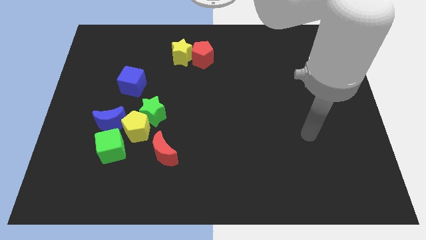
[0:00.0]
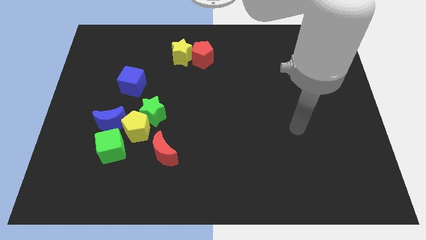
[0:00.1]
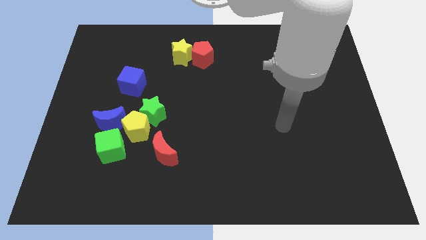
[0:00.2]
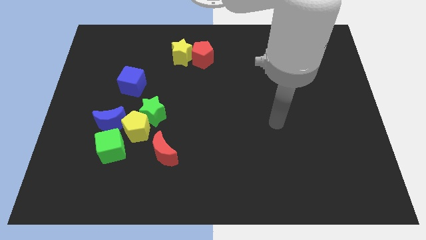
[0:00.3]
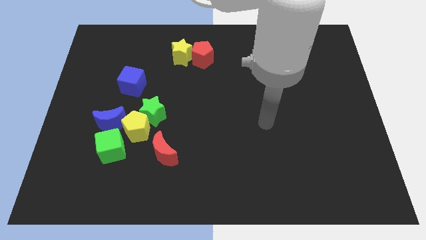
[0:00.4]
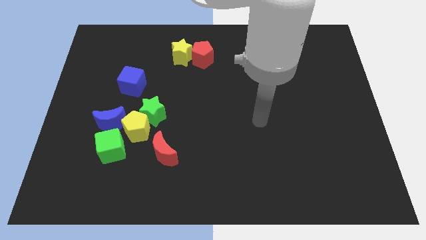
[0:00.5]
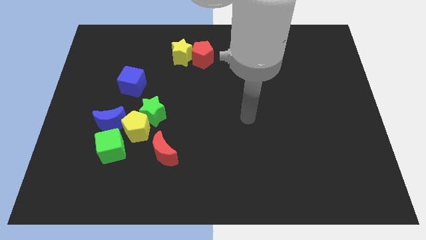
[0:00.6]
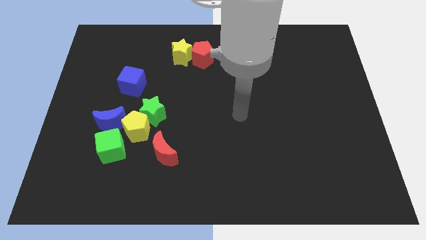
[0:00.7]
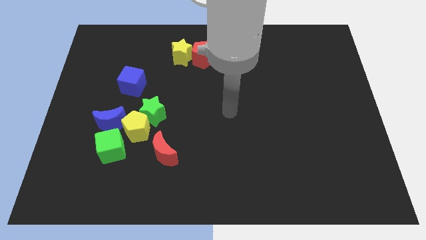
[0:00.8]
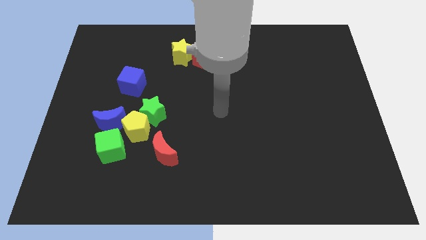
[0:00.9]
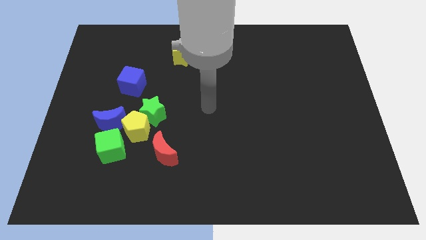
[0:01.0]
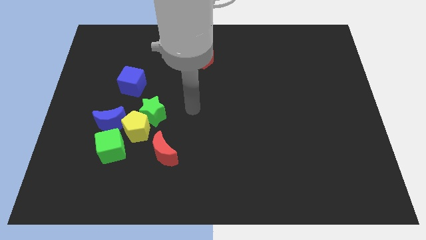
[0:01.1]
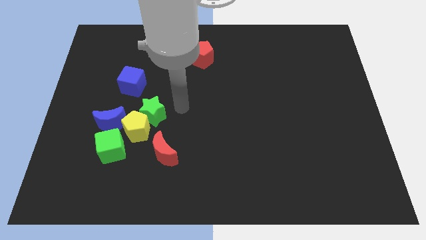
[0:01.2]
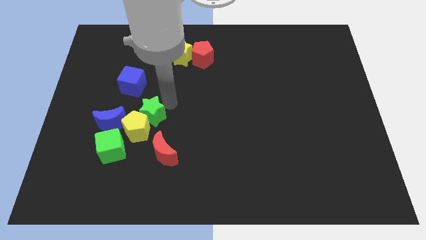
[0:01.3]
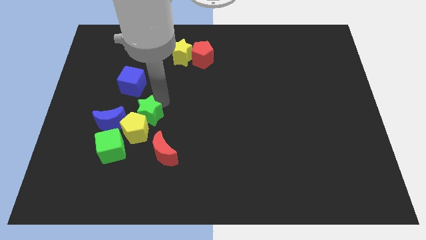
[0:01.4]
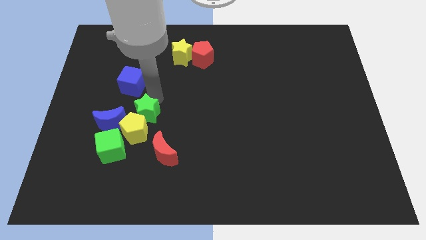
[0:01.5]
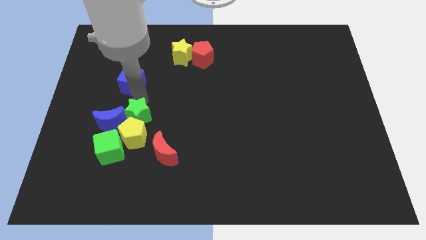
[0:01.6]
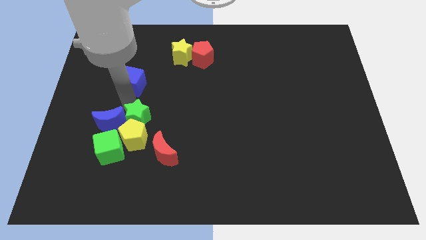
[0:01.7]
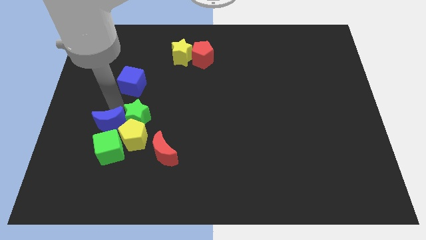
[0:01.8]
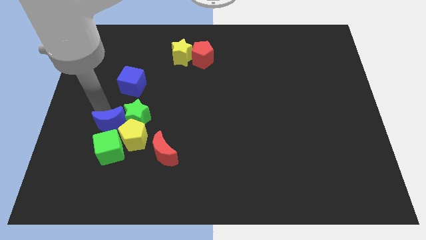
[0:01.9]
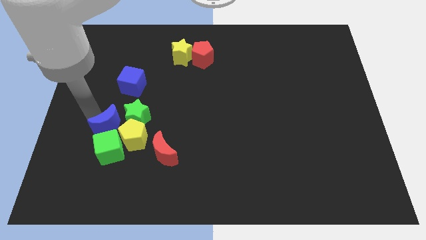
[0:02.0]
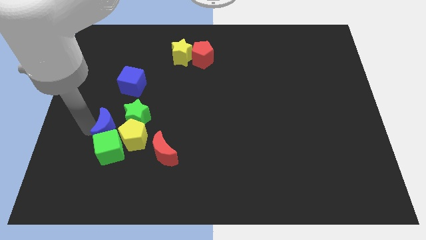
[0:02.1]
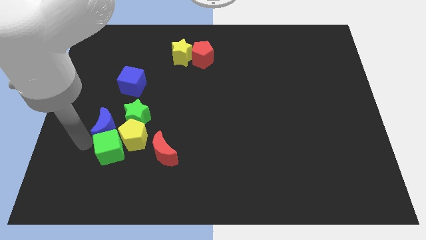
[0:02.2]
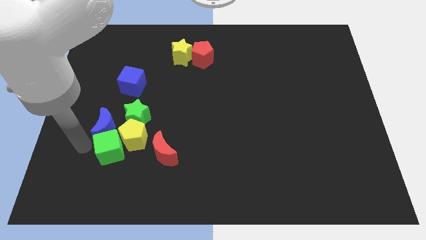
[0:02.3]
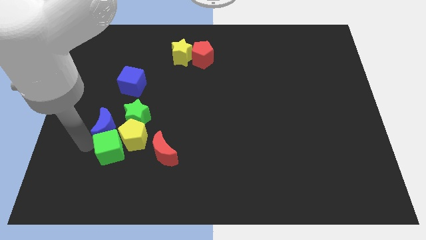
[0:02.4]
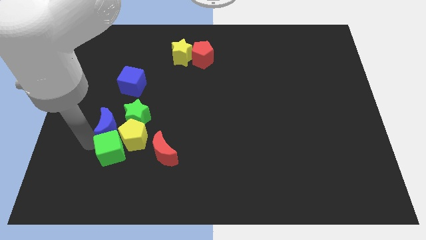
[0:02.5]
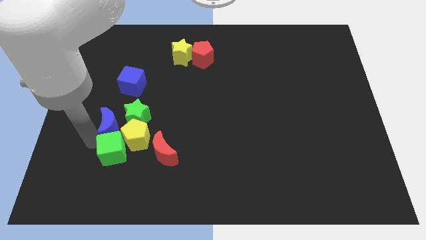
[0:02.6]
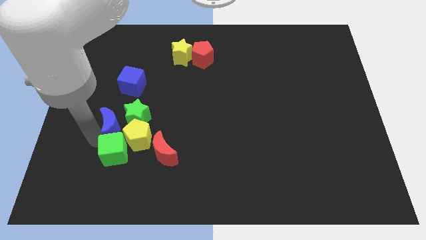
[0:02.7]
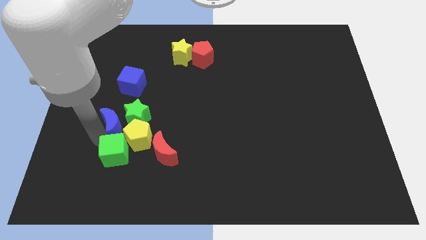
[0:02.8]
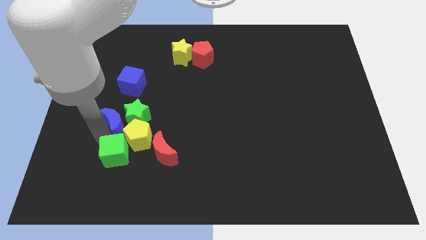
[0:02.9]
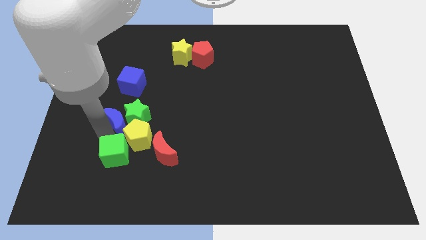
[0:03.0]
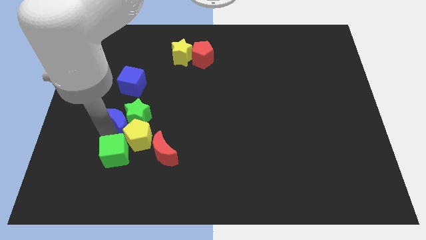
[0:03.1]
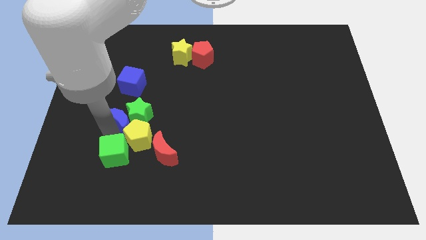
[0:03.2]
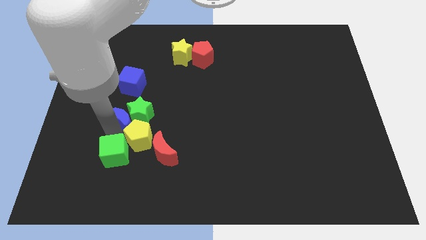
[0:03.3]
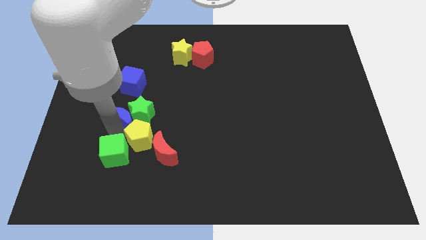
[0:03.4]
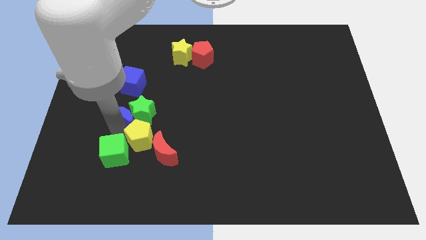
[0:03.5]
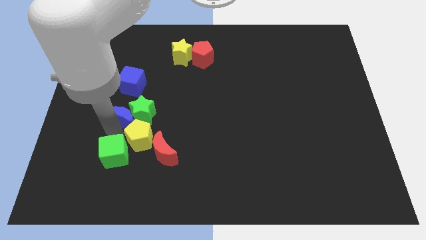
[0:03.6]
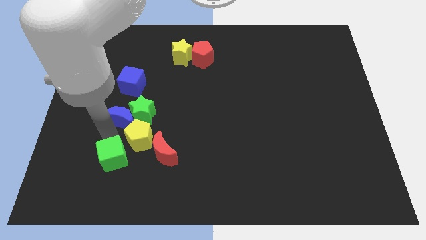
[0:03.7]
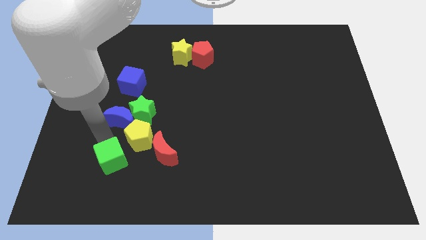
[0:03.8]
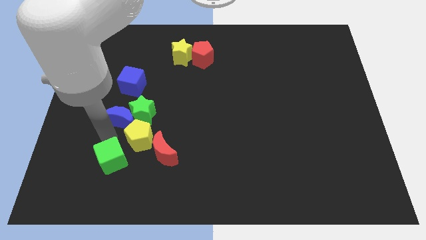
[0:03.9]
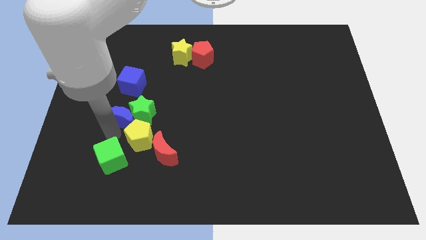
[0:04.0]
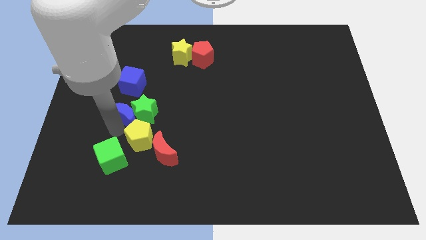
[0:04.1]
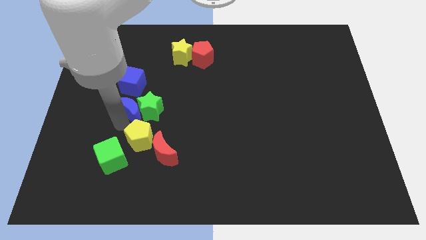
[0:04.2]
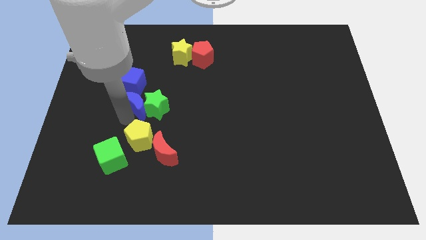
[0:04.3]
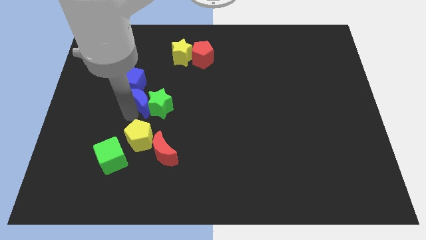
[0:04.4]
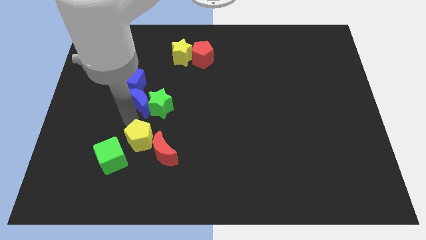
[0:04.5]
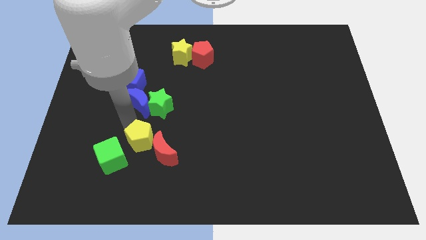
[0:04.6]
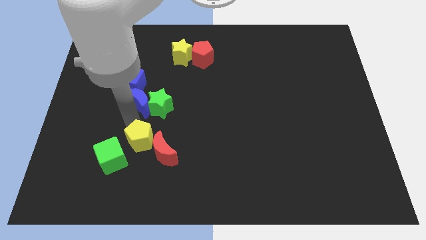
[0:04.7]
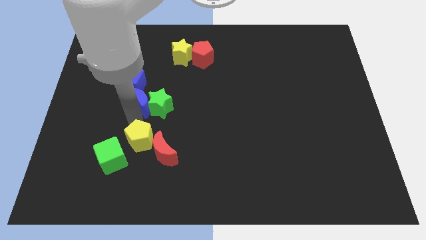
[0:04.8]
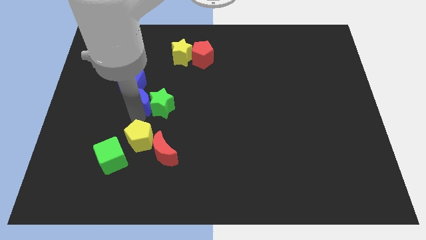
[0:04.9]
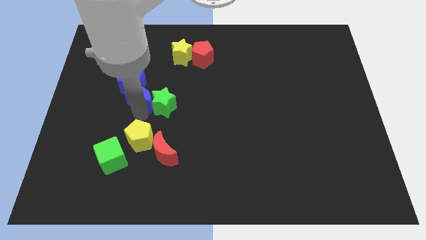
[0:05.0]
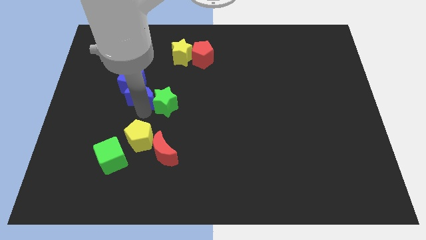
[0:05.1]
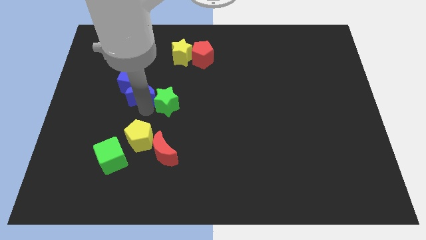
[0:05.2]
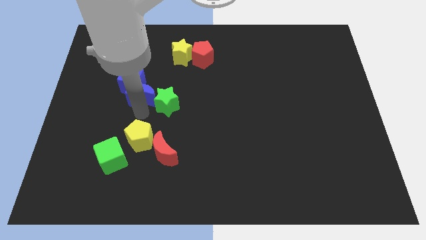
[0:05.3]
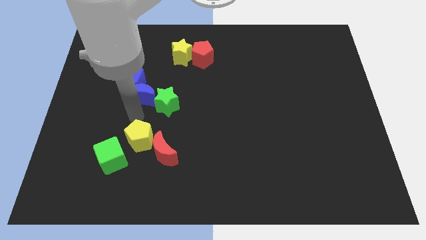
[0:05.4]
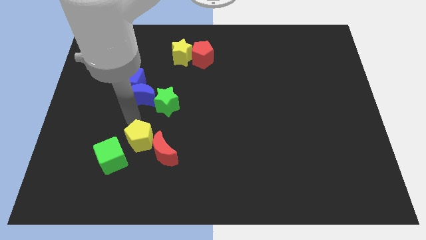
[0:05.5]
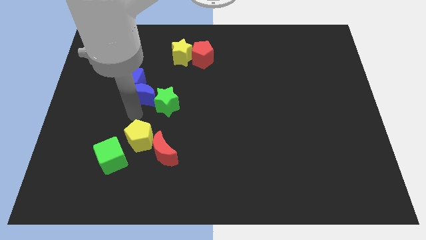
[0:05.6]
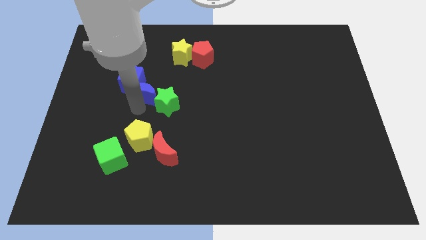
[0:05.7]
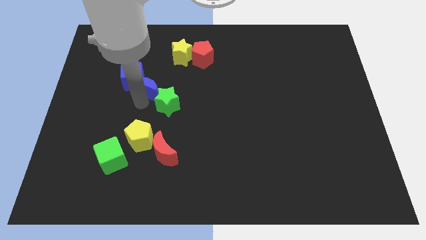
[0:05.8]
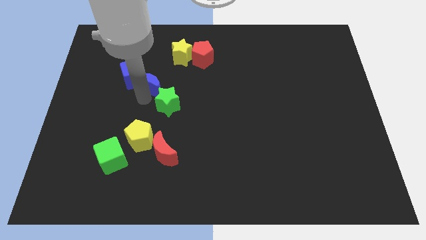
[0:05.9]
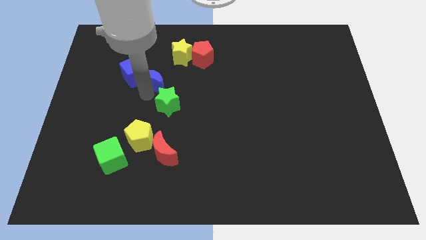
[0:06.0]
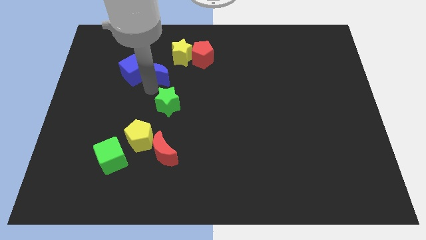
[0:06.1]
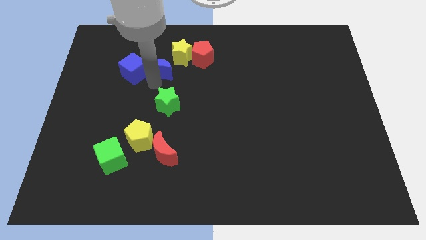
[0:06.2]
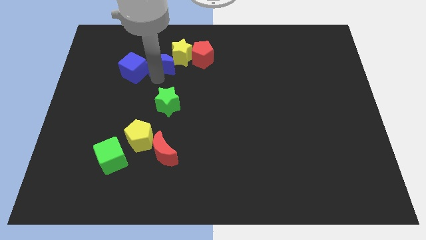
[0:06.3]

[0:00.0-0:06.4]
move the blue moon left of the red pentagon

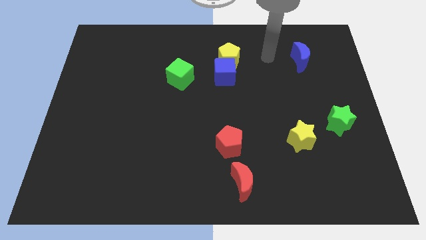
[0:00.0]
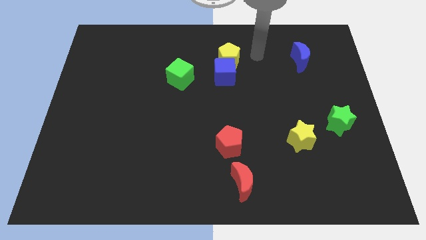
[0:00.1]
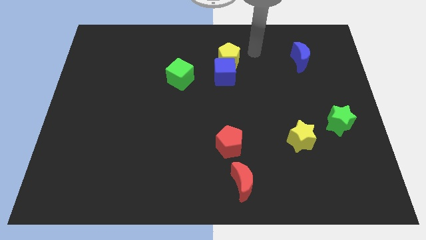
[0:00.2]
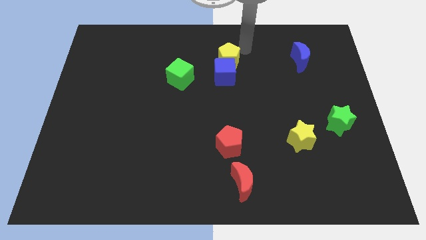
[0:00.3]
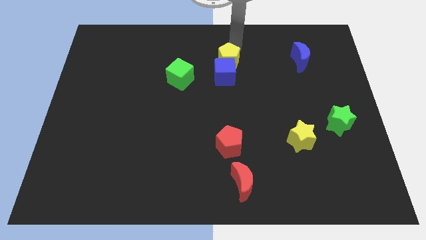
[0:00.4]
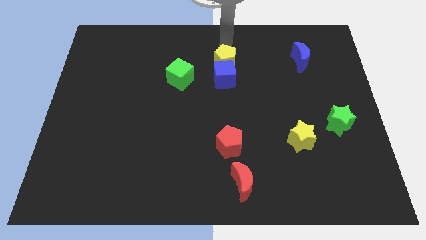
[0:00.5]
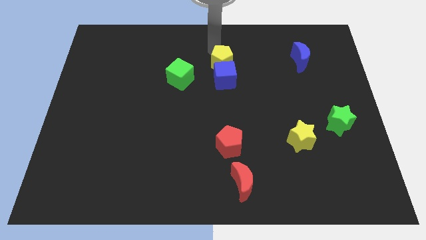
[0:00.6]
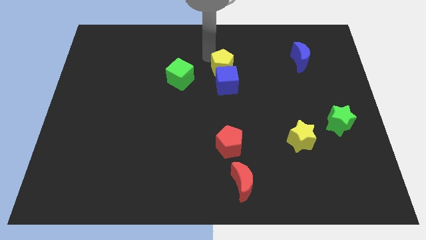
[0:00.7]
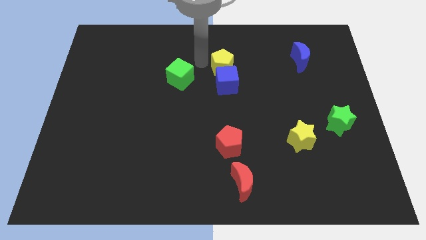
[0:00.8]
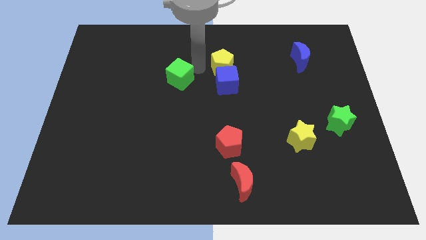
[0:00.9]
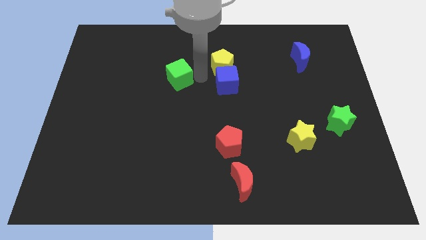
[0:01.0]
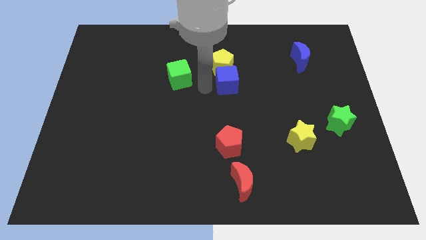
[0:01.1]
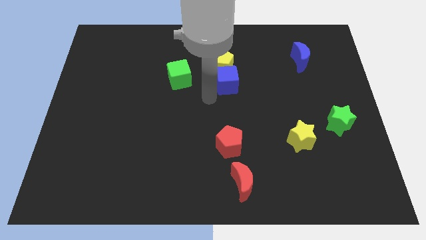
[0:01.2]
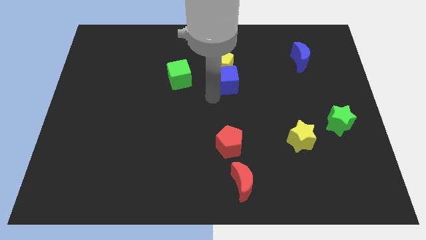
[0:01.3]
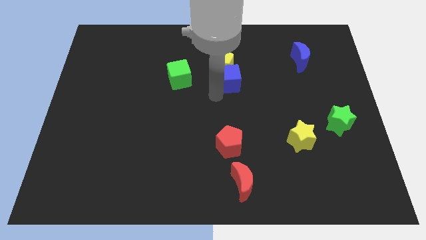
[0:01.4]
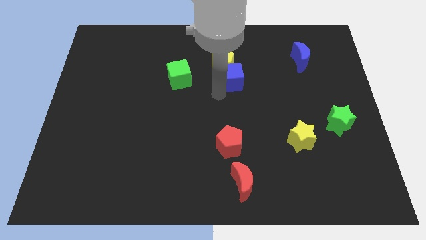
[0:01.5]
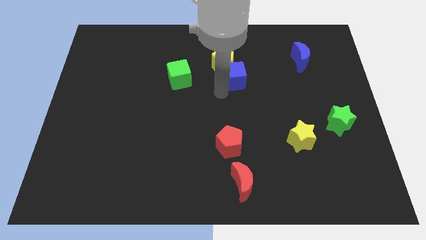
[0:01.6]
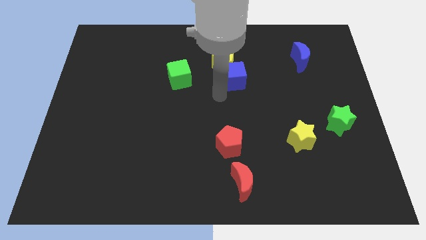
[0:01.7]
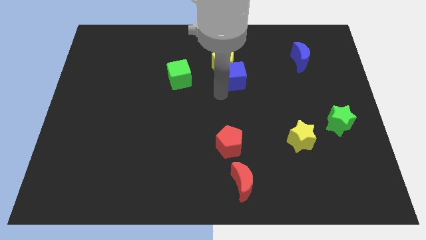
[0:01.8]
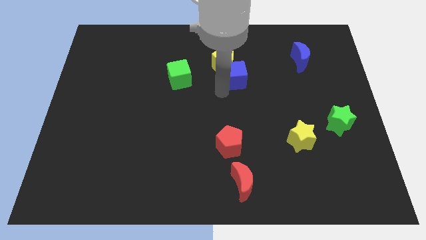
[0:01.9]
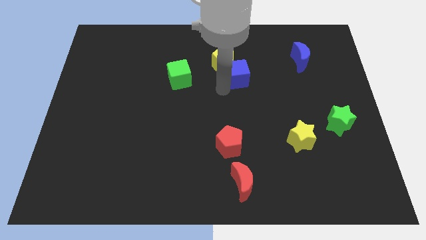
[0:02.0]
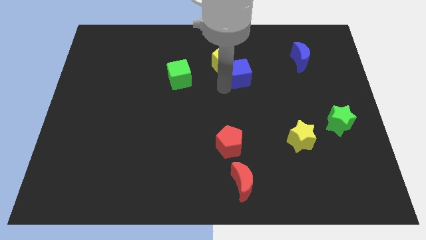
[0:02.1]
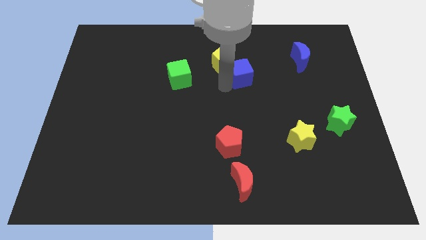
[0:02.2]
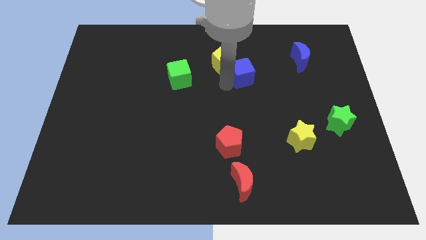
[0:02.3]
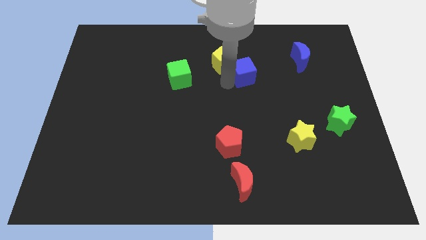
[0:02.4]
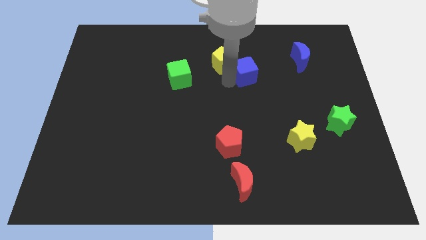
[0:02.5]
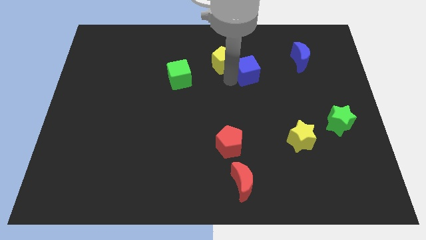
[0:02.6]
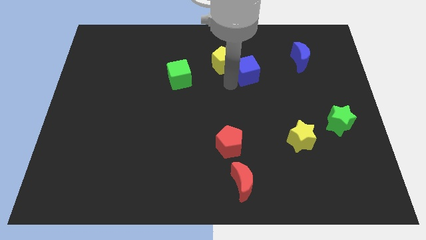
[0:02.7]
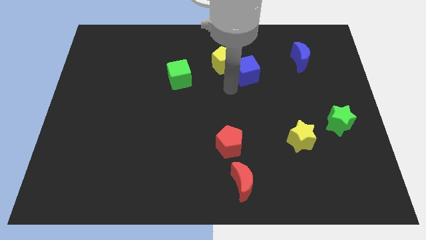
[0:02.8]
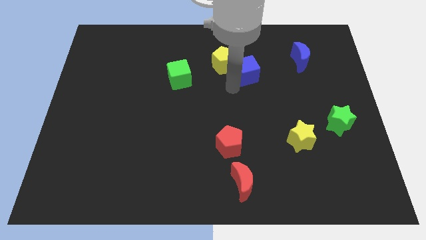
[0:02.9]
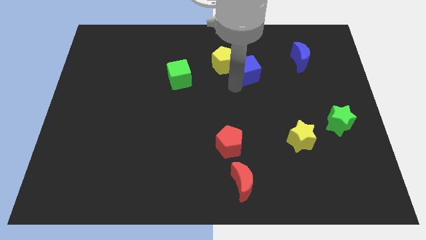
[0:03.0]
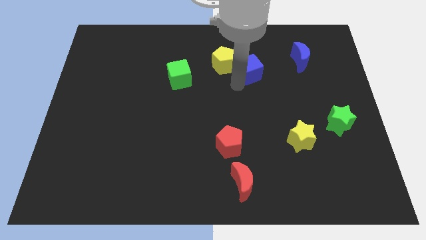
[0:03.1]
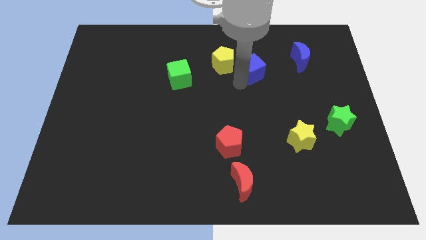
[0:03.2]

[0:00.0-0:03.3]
put the blue cube to the left of the blue moon
